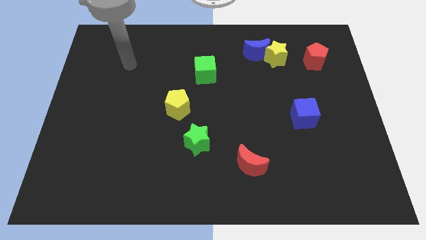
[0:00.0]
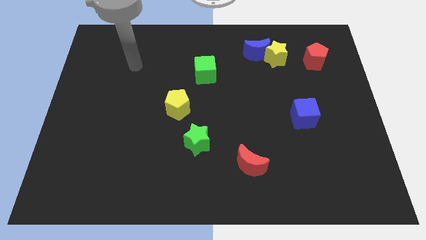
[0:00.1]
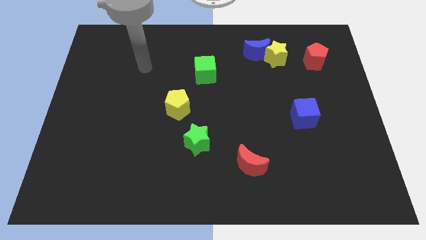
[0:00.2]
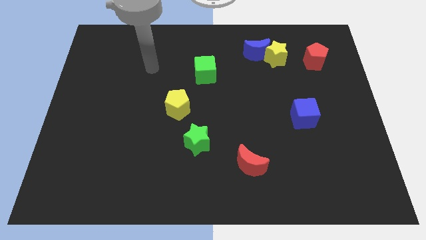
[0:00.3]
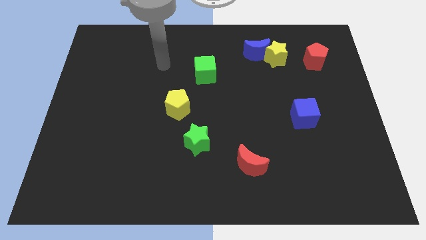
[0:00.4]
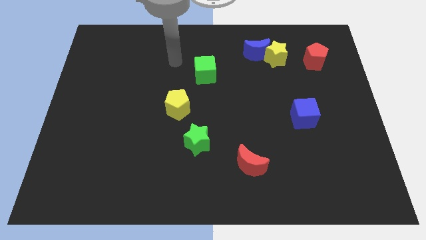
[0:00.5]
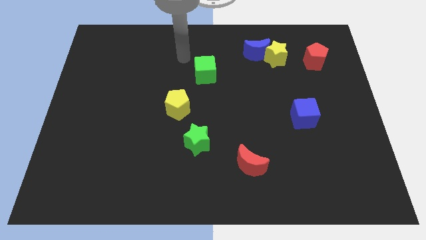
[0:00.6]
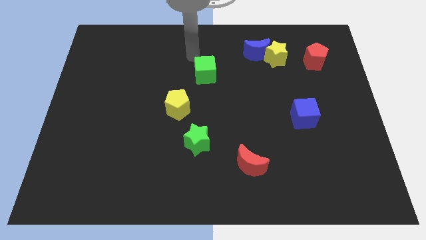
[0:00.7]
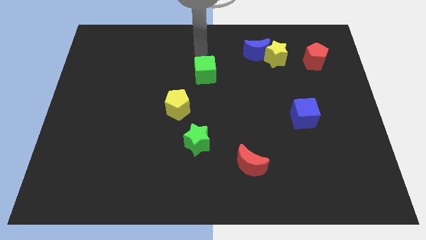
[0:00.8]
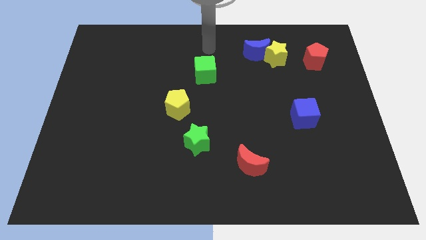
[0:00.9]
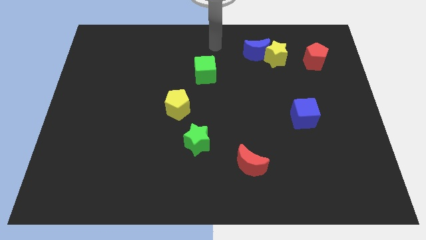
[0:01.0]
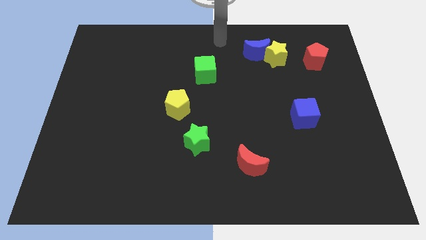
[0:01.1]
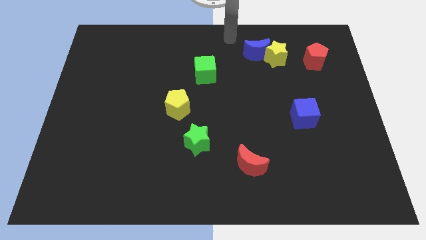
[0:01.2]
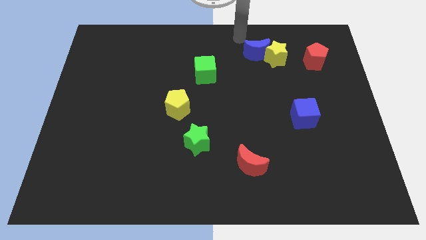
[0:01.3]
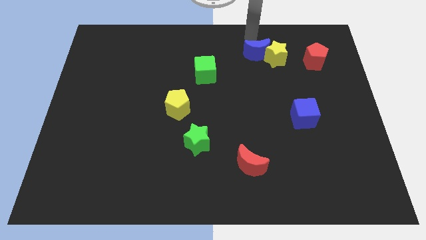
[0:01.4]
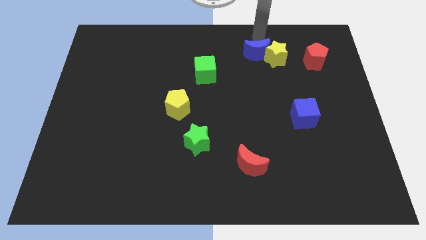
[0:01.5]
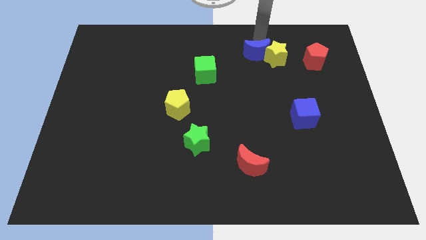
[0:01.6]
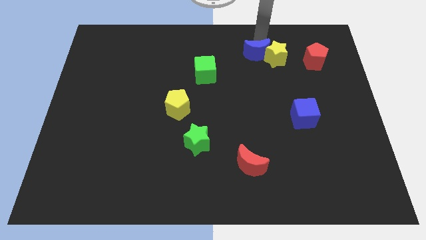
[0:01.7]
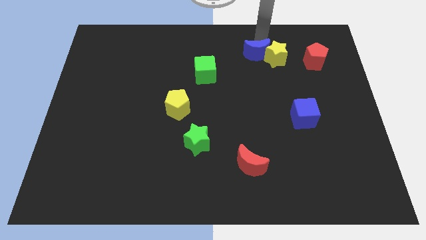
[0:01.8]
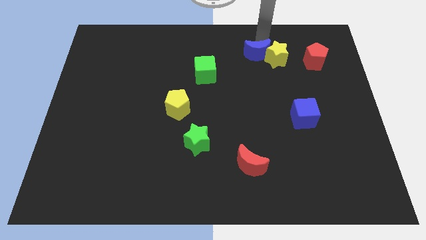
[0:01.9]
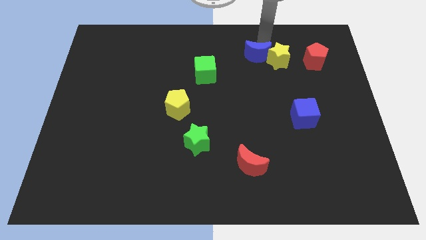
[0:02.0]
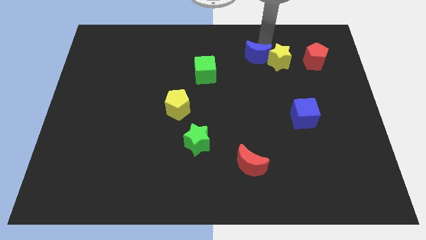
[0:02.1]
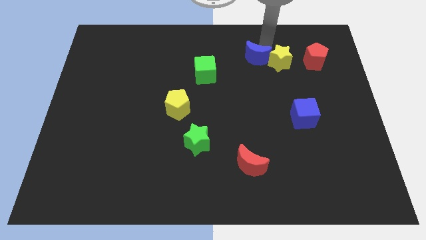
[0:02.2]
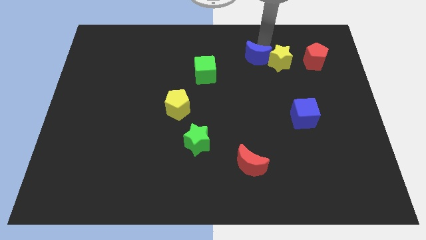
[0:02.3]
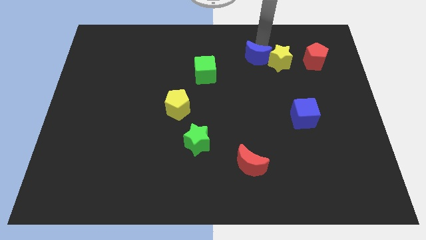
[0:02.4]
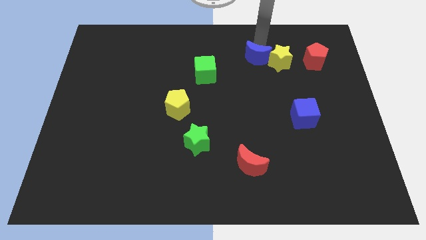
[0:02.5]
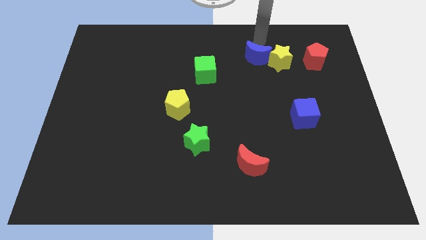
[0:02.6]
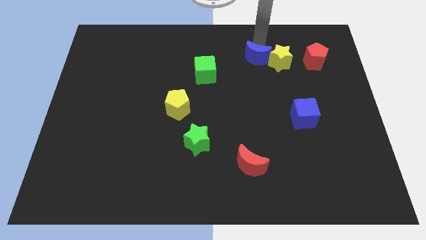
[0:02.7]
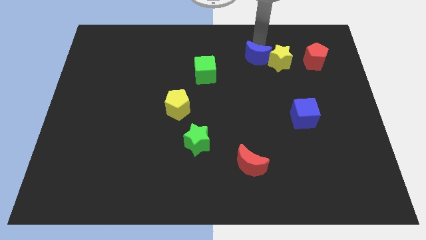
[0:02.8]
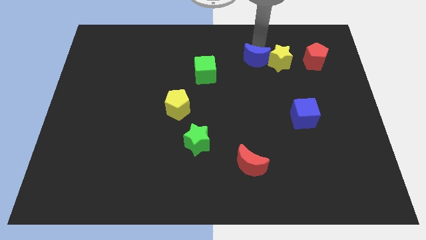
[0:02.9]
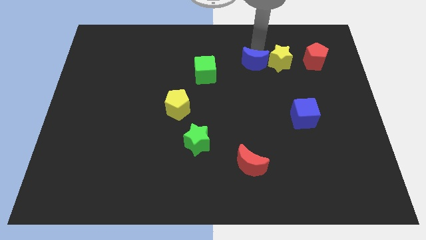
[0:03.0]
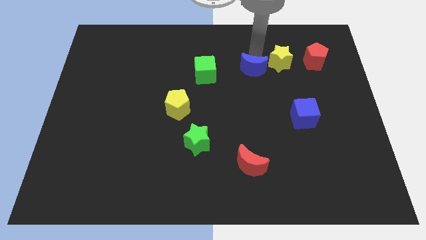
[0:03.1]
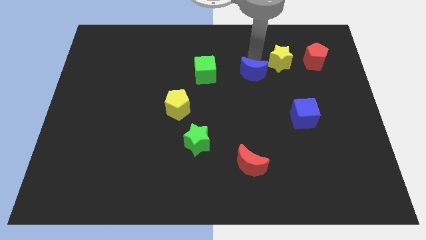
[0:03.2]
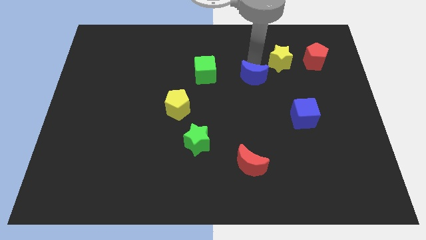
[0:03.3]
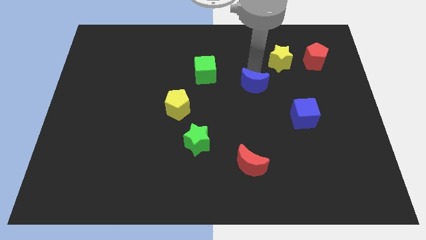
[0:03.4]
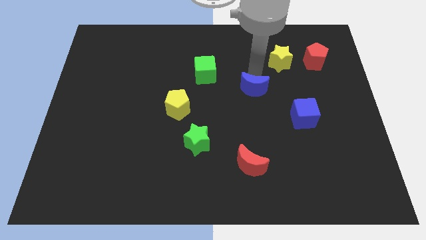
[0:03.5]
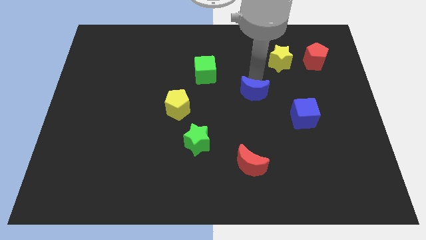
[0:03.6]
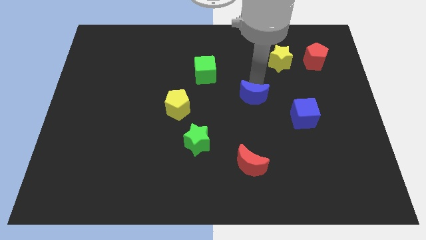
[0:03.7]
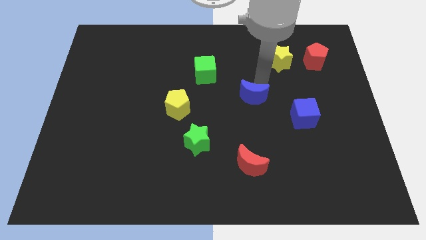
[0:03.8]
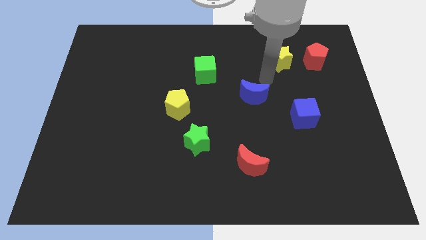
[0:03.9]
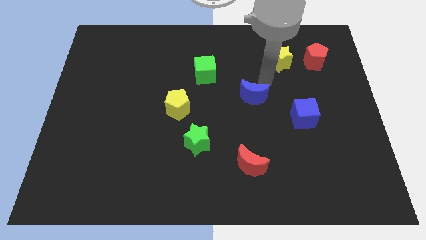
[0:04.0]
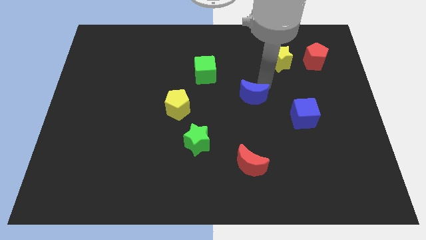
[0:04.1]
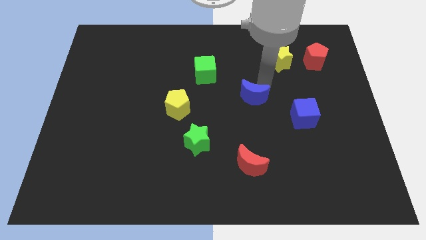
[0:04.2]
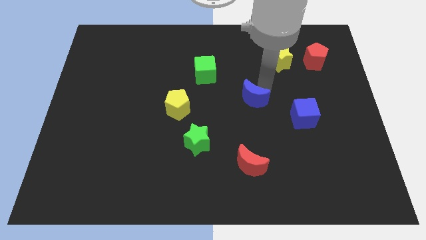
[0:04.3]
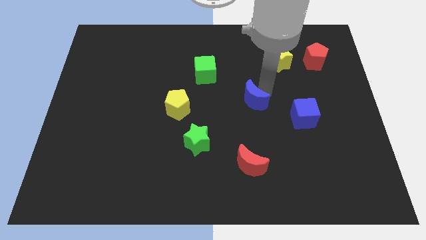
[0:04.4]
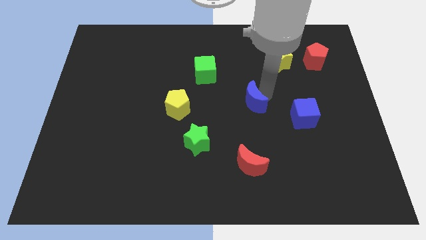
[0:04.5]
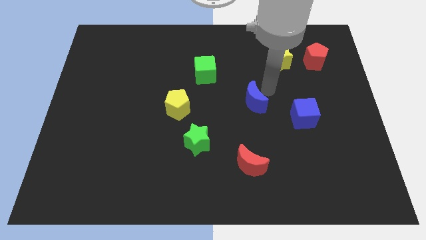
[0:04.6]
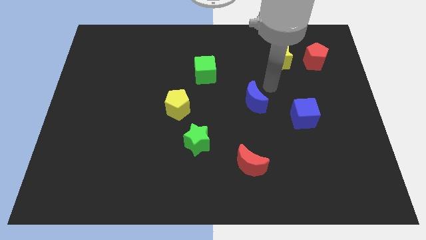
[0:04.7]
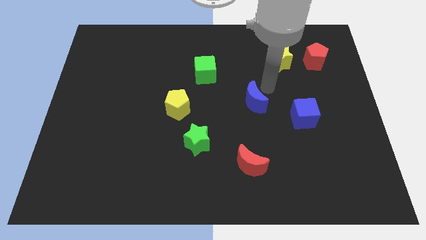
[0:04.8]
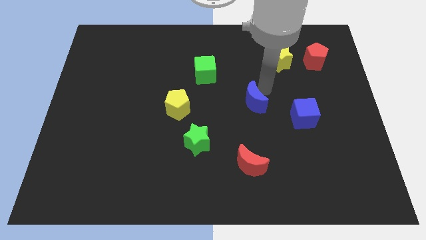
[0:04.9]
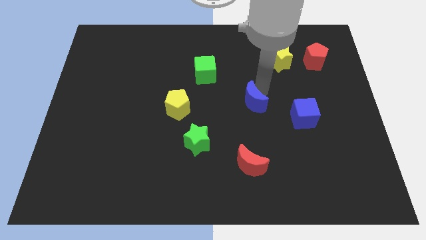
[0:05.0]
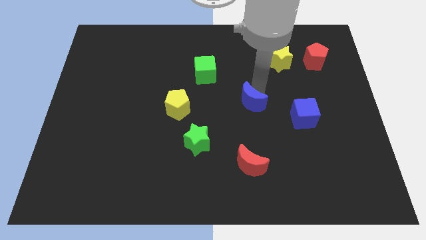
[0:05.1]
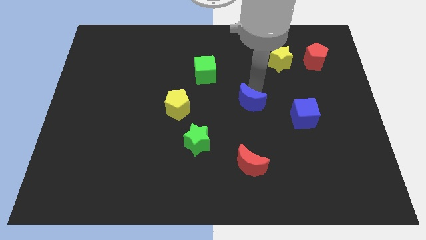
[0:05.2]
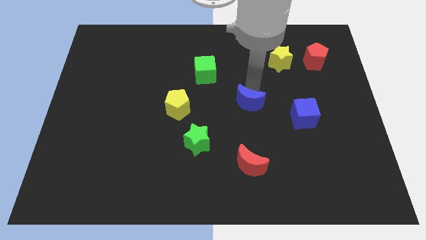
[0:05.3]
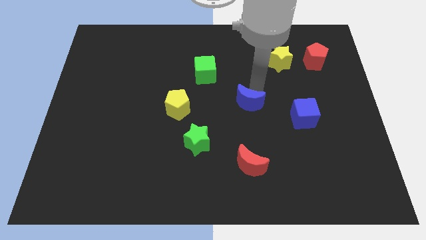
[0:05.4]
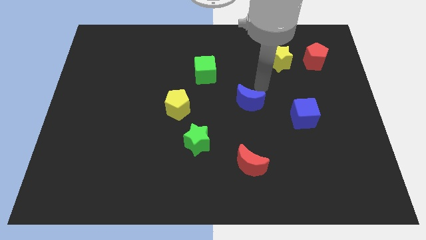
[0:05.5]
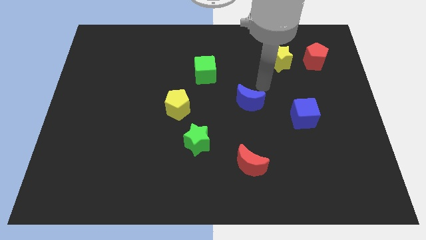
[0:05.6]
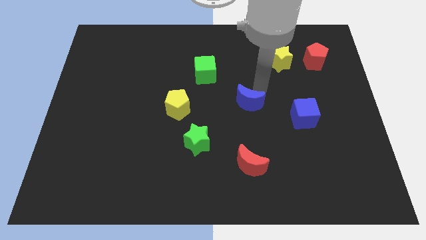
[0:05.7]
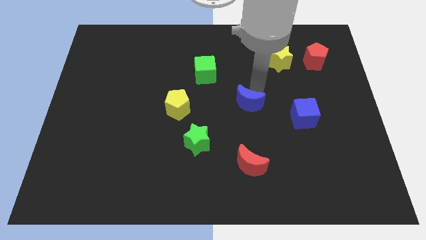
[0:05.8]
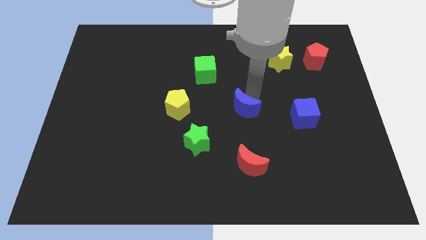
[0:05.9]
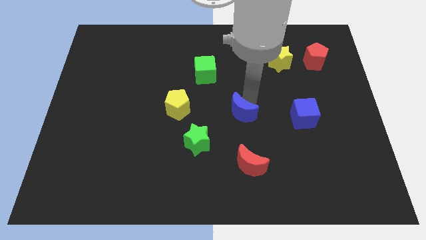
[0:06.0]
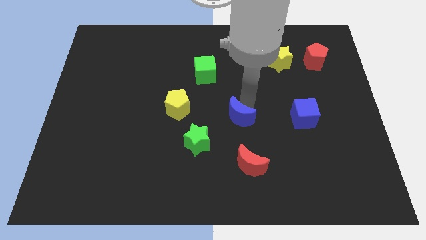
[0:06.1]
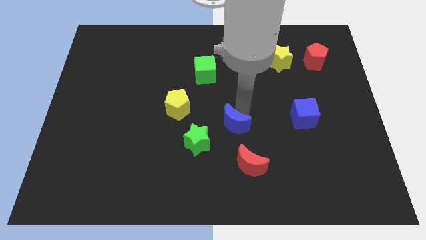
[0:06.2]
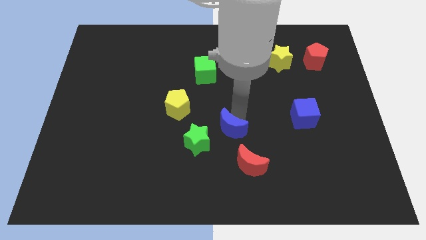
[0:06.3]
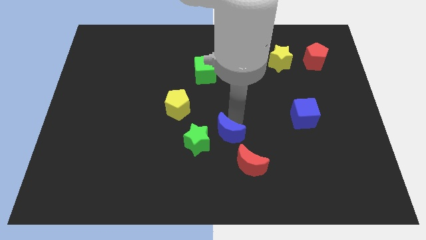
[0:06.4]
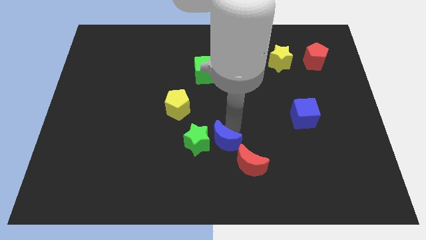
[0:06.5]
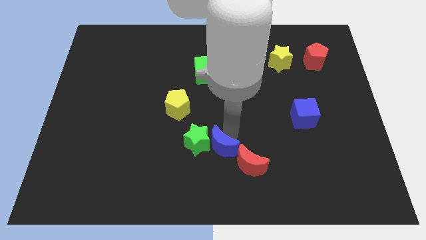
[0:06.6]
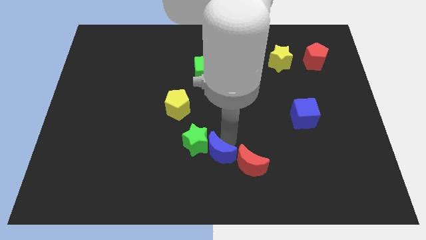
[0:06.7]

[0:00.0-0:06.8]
put the blue moon to the bottom side
